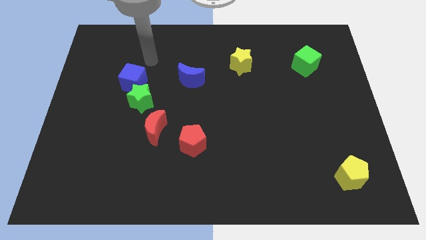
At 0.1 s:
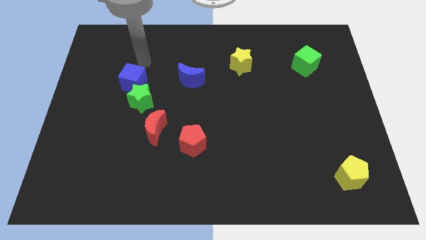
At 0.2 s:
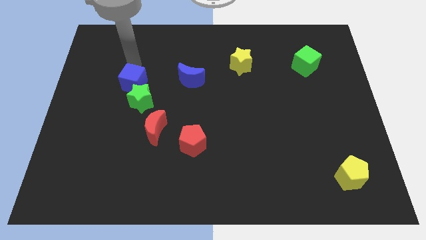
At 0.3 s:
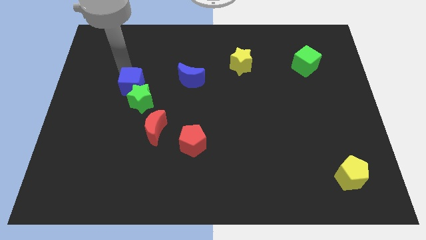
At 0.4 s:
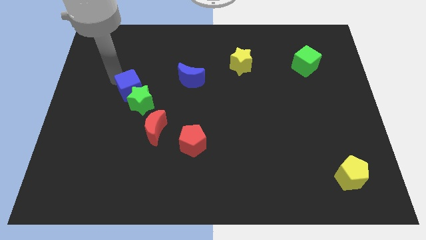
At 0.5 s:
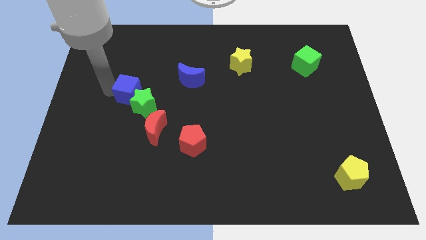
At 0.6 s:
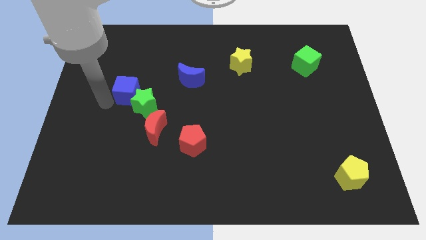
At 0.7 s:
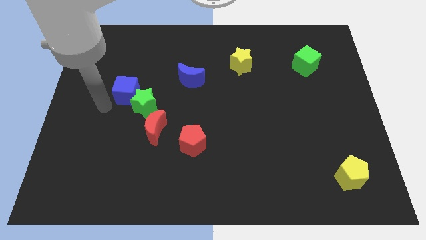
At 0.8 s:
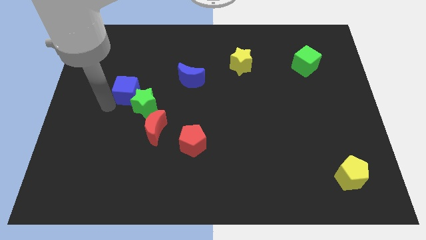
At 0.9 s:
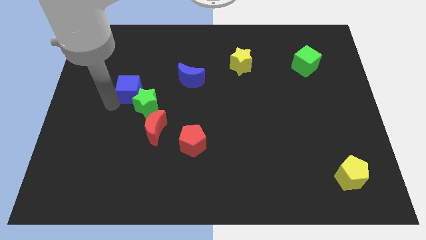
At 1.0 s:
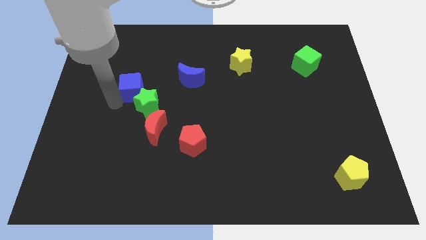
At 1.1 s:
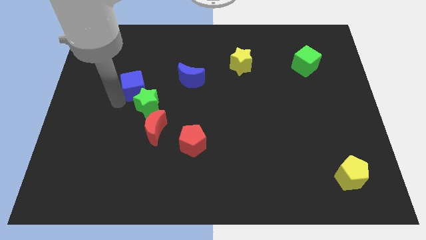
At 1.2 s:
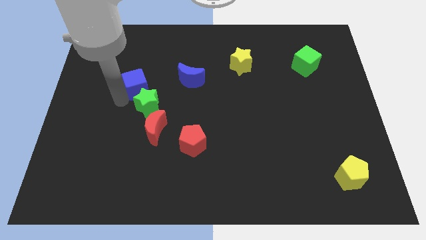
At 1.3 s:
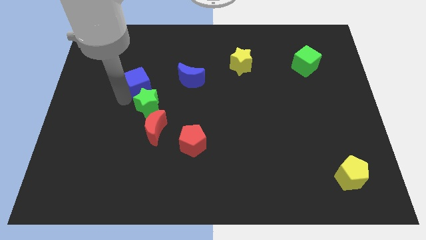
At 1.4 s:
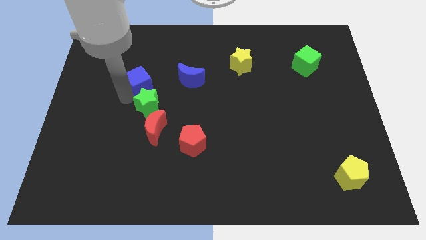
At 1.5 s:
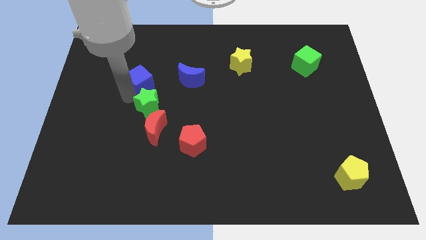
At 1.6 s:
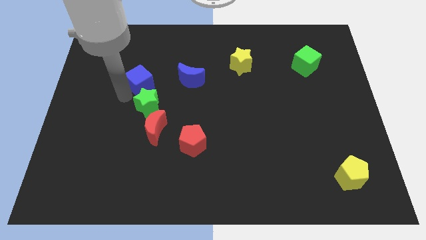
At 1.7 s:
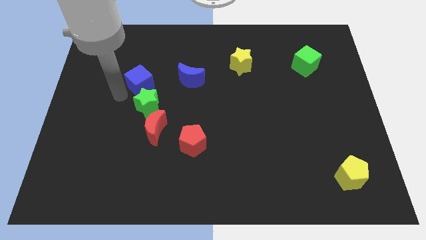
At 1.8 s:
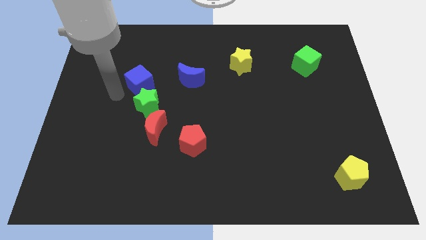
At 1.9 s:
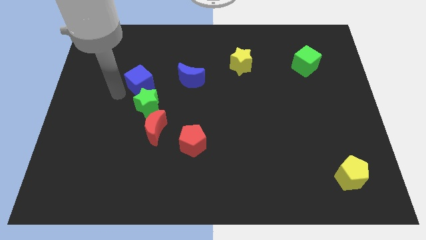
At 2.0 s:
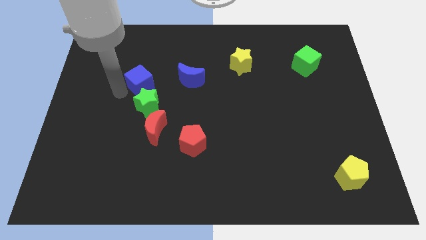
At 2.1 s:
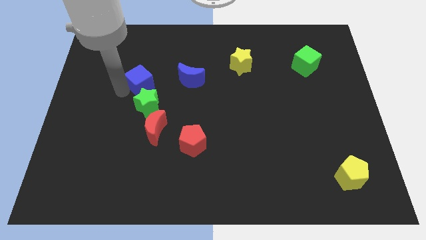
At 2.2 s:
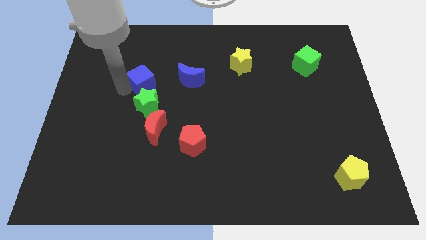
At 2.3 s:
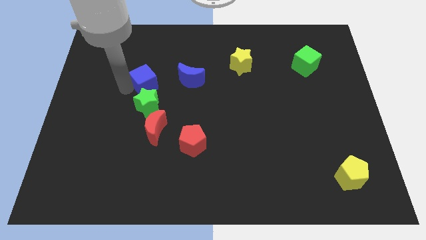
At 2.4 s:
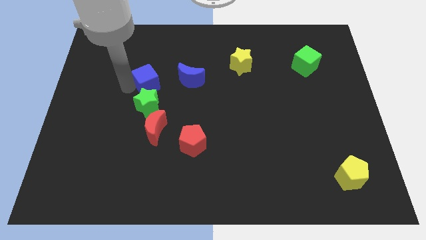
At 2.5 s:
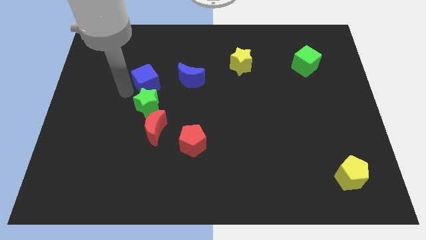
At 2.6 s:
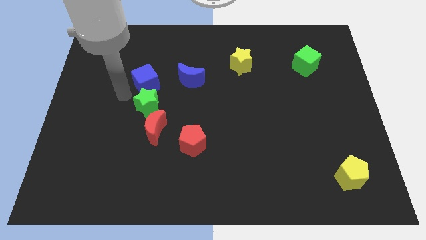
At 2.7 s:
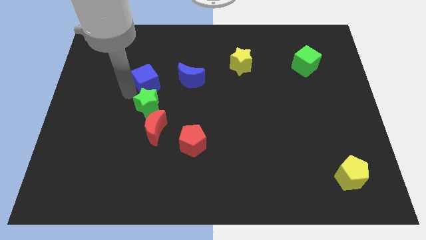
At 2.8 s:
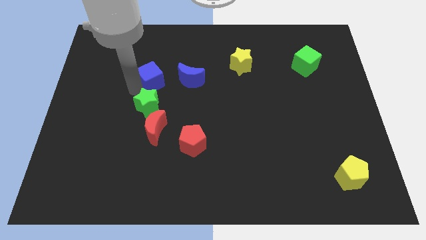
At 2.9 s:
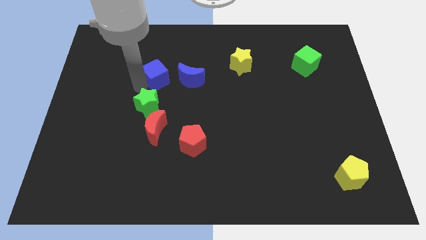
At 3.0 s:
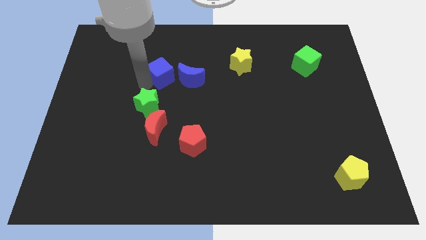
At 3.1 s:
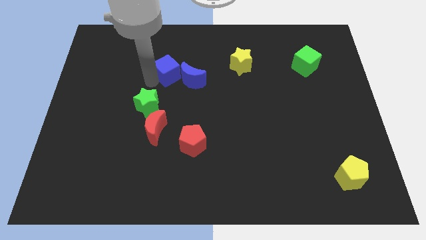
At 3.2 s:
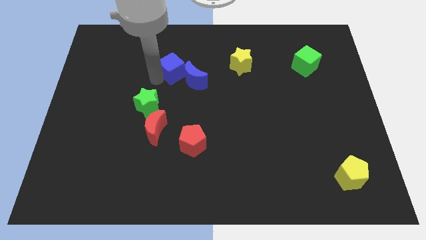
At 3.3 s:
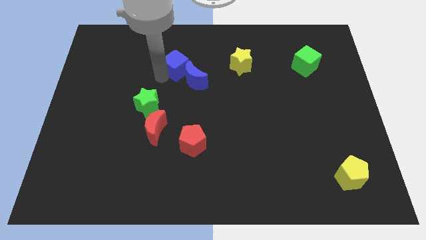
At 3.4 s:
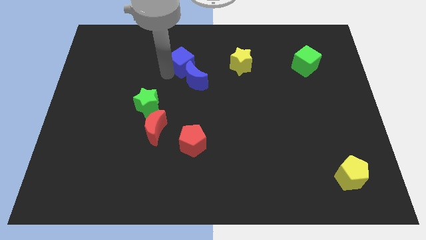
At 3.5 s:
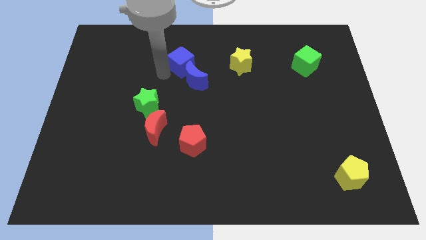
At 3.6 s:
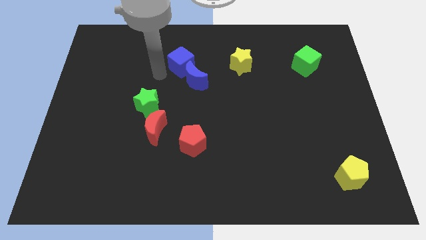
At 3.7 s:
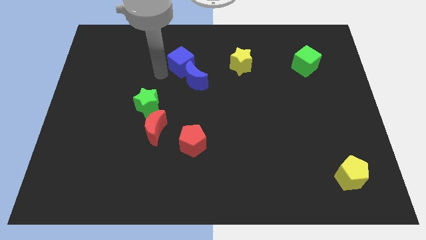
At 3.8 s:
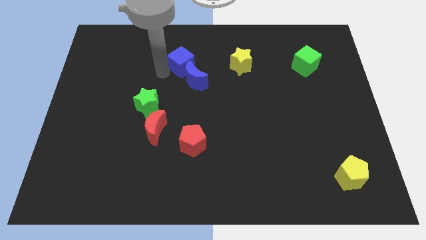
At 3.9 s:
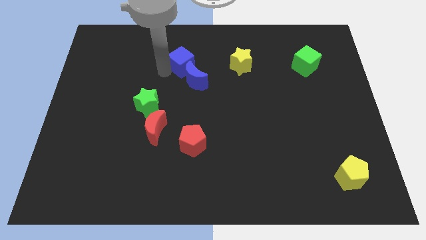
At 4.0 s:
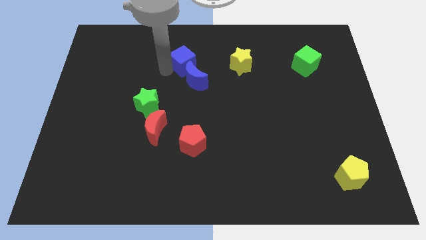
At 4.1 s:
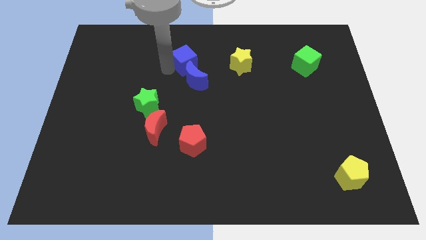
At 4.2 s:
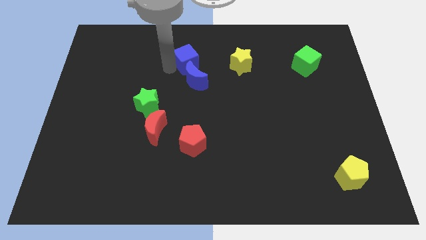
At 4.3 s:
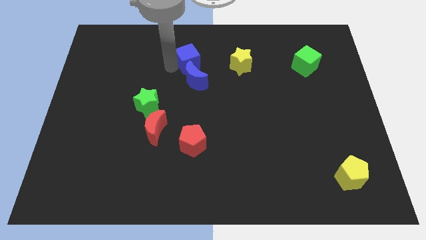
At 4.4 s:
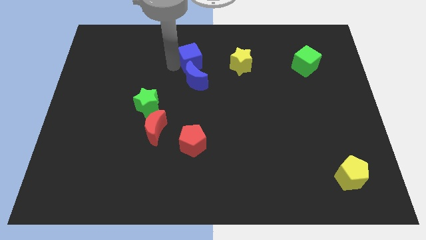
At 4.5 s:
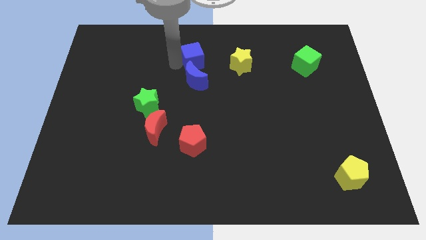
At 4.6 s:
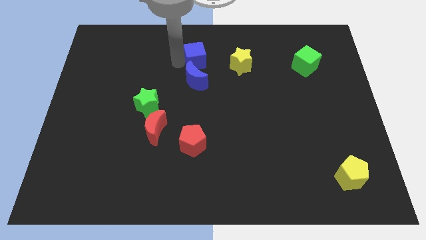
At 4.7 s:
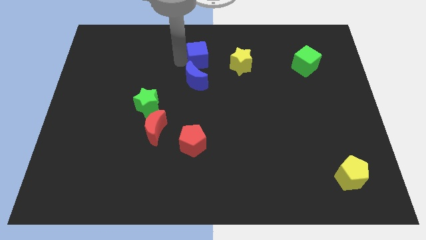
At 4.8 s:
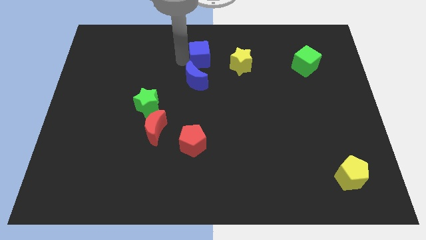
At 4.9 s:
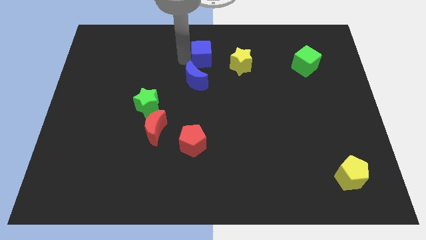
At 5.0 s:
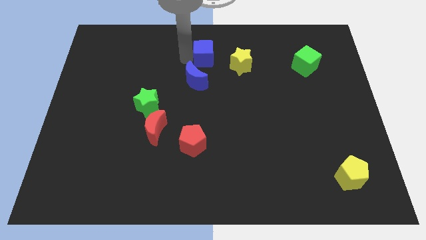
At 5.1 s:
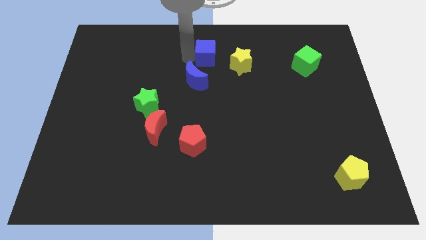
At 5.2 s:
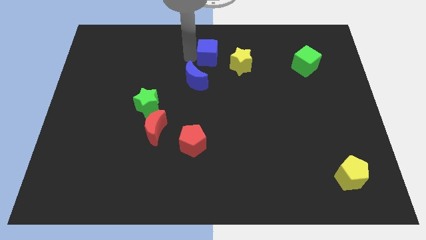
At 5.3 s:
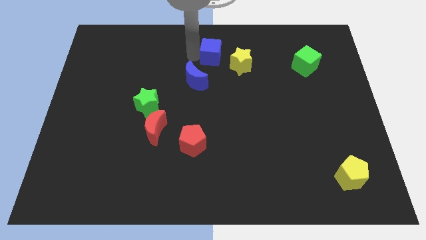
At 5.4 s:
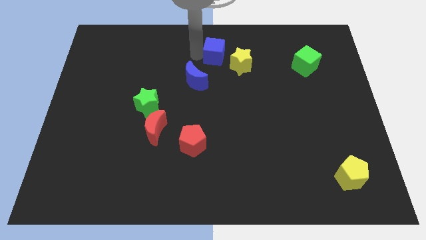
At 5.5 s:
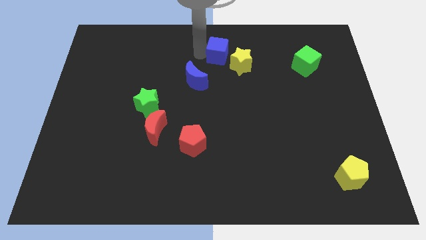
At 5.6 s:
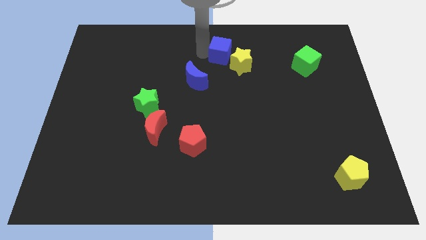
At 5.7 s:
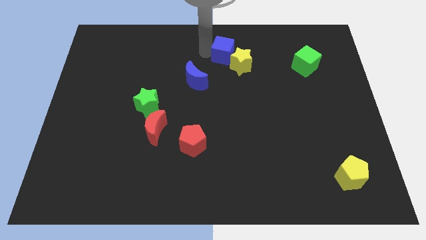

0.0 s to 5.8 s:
move the blue cube close to the yellow star

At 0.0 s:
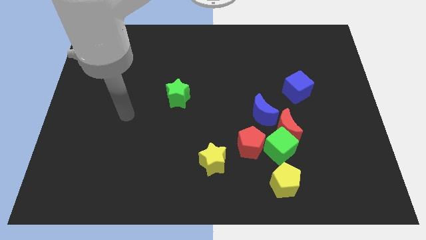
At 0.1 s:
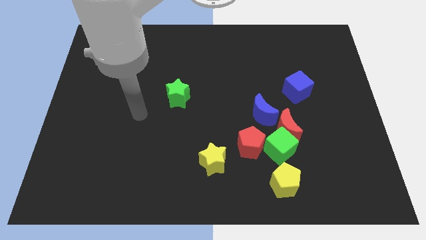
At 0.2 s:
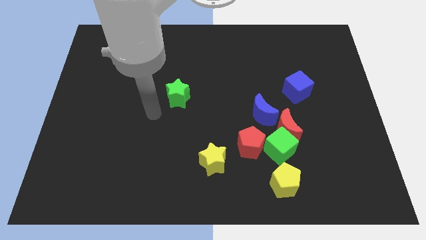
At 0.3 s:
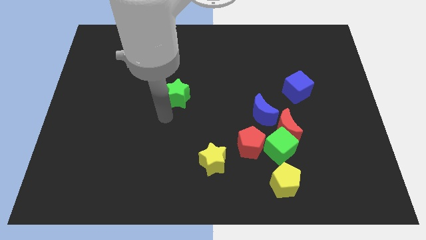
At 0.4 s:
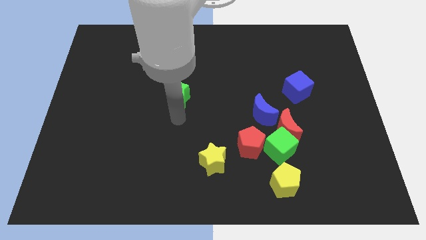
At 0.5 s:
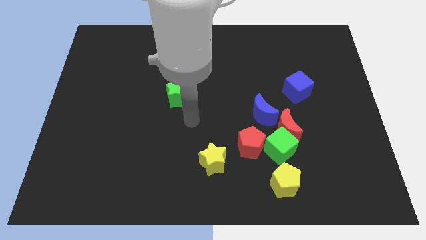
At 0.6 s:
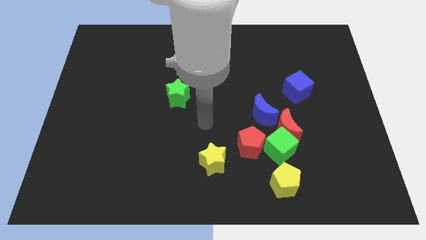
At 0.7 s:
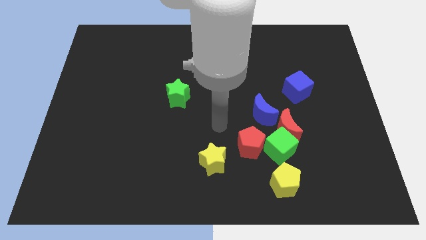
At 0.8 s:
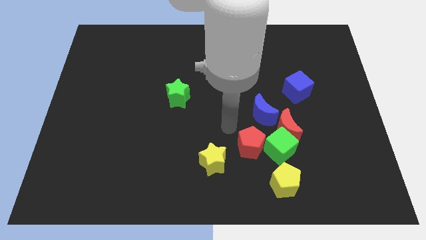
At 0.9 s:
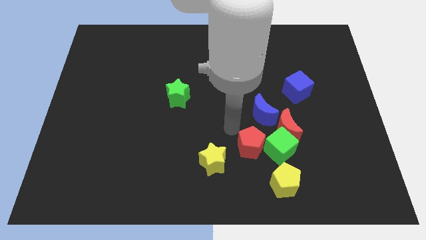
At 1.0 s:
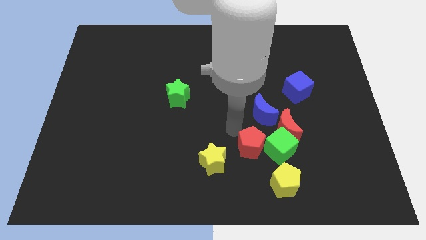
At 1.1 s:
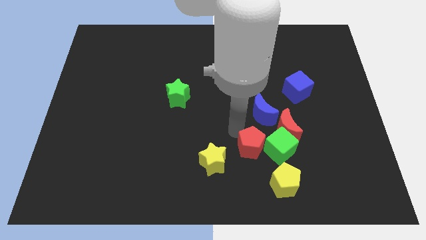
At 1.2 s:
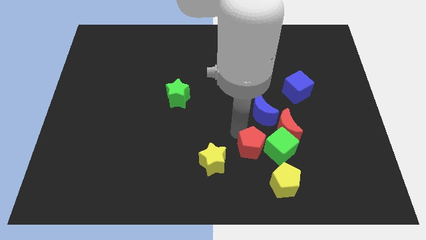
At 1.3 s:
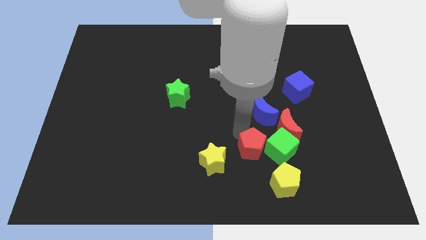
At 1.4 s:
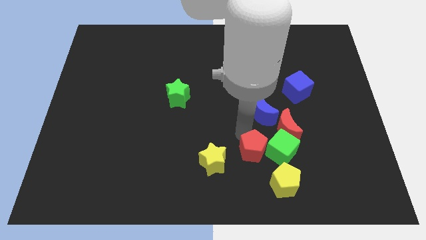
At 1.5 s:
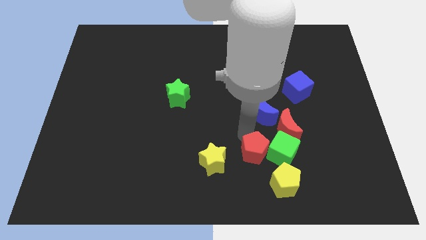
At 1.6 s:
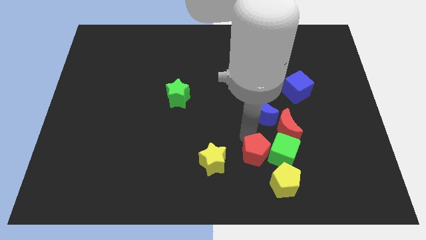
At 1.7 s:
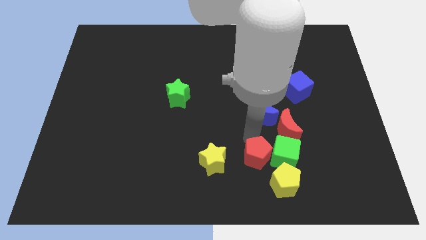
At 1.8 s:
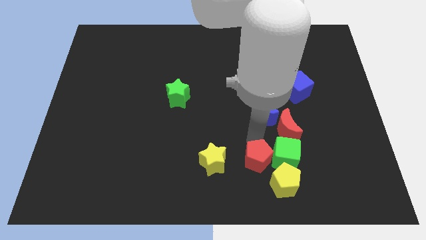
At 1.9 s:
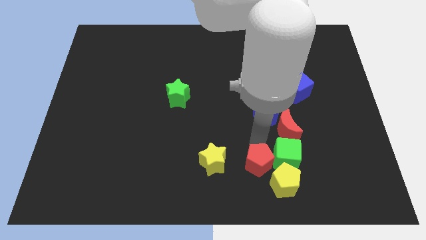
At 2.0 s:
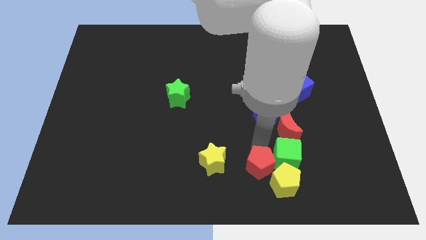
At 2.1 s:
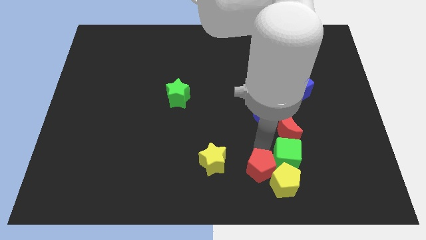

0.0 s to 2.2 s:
move the red pentagon towards the yellow pentagon
